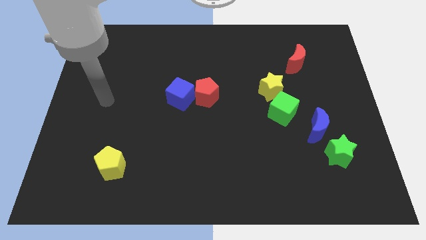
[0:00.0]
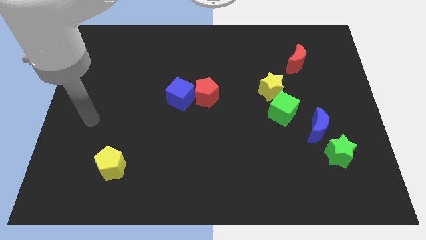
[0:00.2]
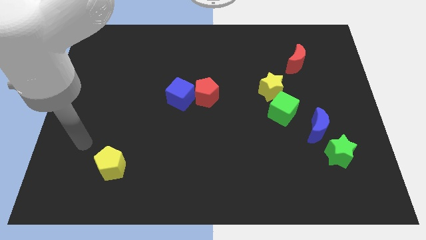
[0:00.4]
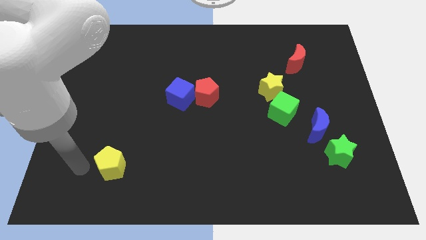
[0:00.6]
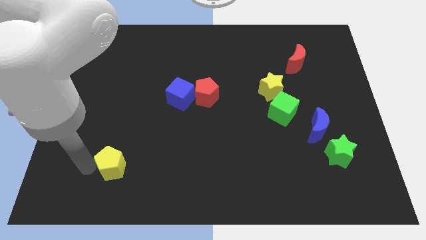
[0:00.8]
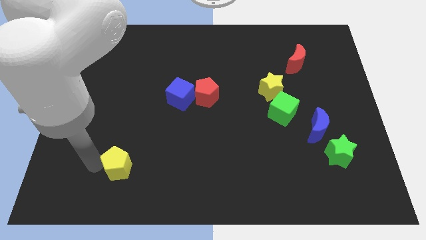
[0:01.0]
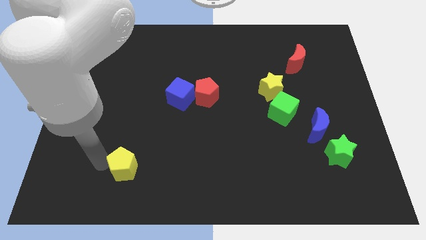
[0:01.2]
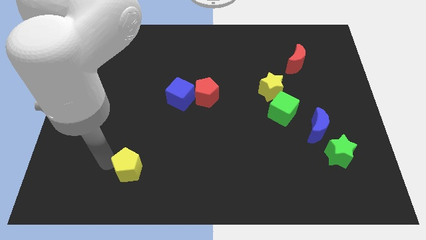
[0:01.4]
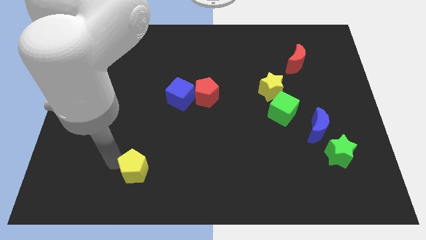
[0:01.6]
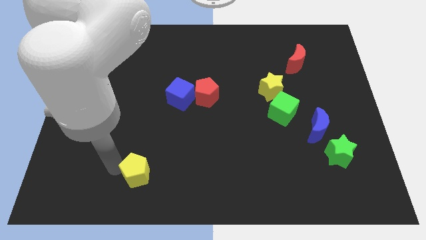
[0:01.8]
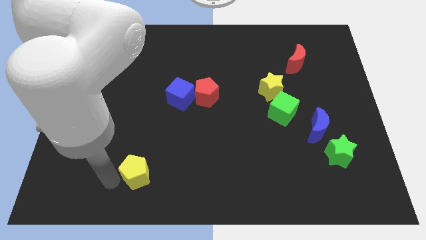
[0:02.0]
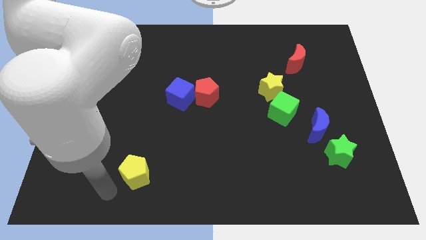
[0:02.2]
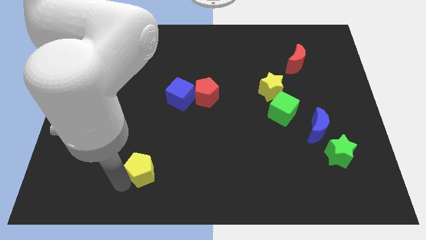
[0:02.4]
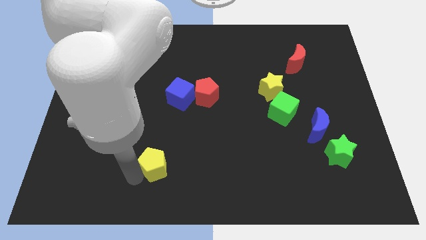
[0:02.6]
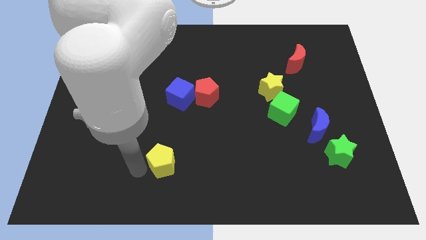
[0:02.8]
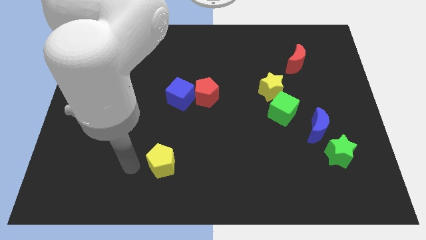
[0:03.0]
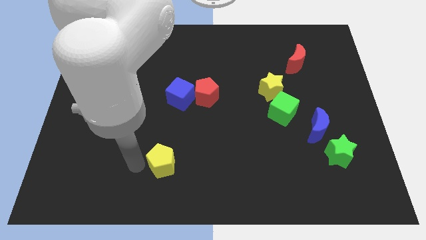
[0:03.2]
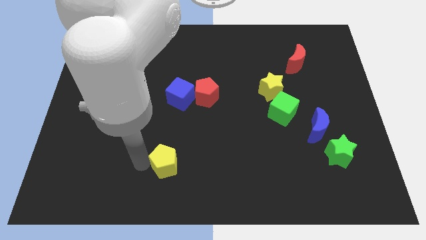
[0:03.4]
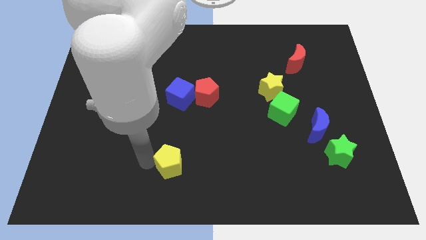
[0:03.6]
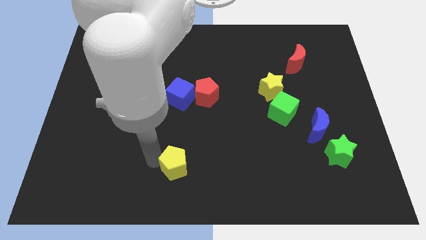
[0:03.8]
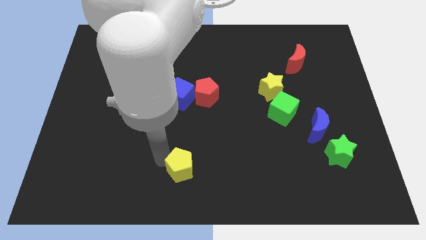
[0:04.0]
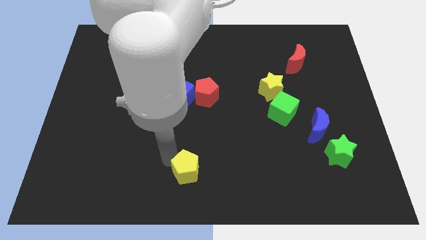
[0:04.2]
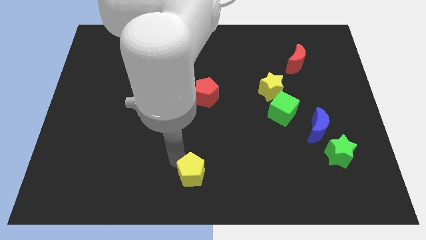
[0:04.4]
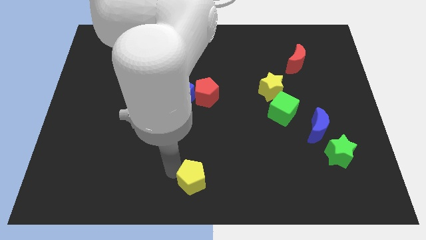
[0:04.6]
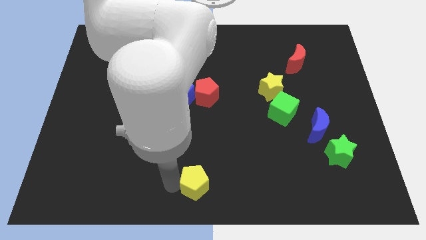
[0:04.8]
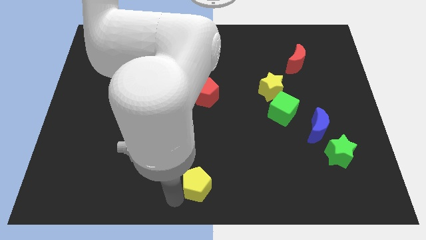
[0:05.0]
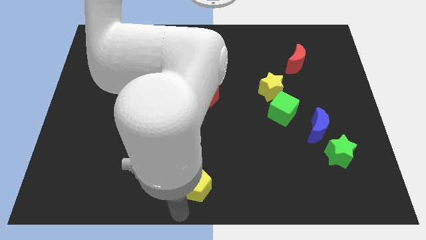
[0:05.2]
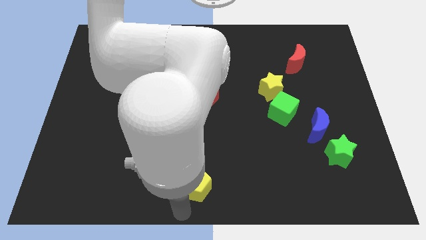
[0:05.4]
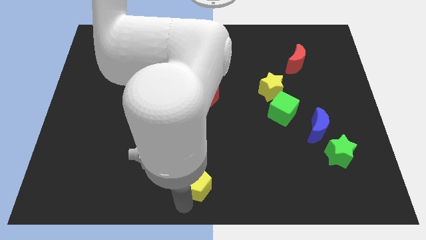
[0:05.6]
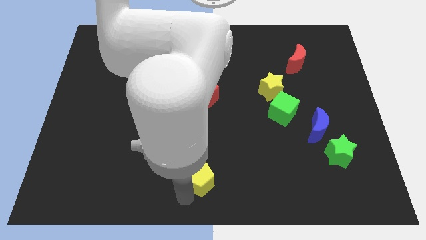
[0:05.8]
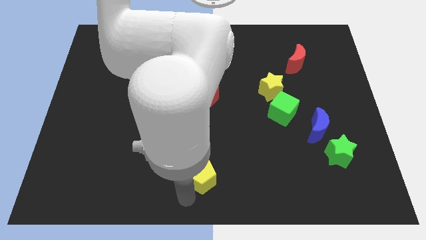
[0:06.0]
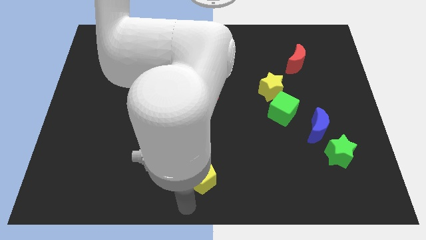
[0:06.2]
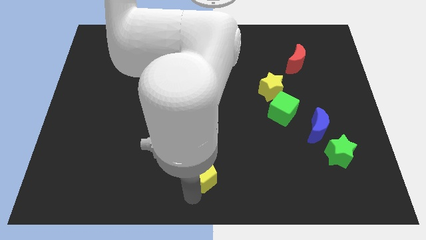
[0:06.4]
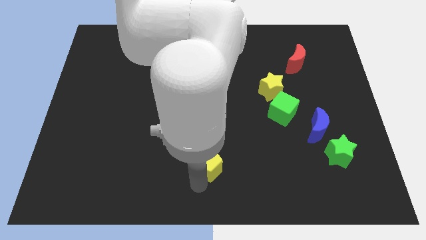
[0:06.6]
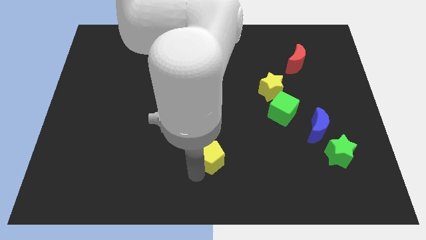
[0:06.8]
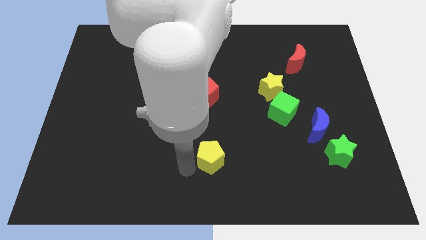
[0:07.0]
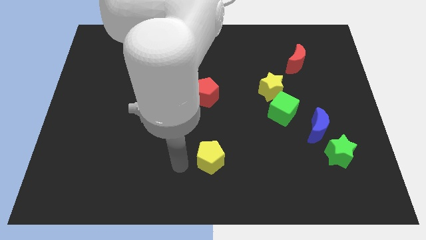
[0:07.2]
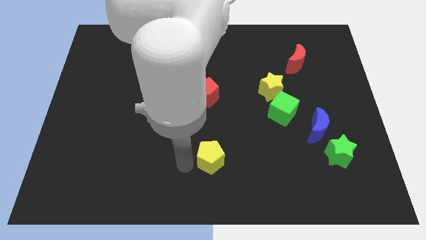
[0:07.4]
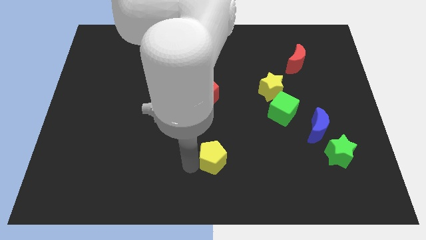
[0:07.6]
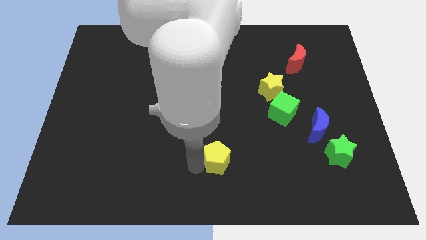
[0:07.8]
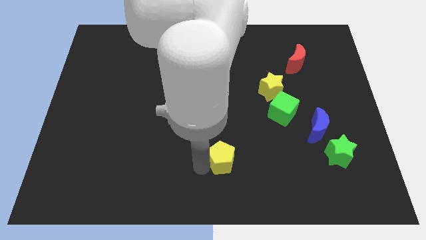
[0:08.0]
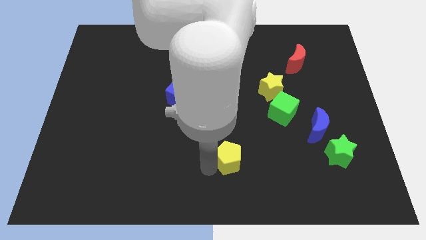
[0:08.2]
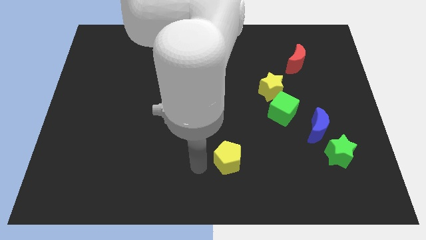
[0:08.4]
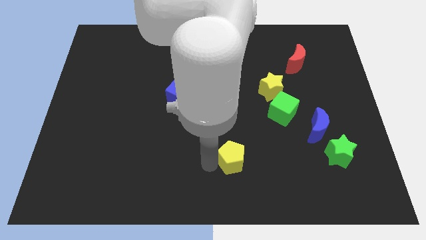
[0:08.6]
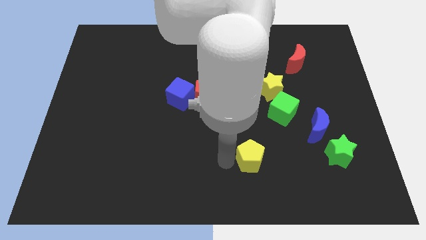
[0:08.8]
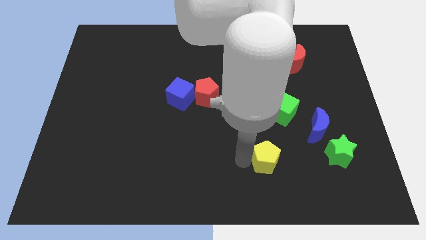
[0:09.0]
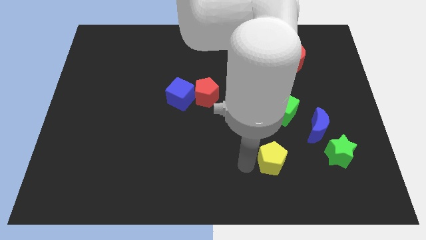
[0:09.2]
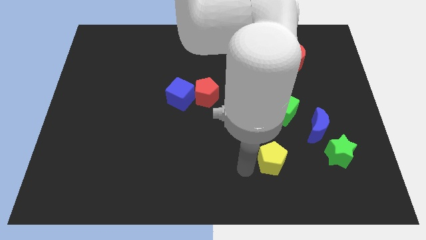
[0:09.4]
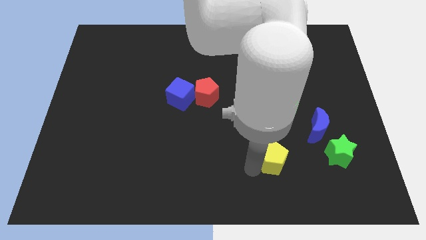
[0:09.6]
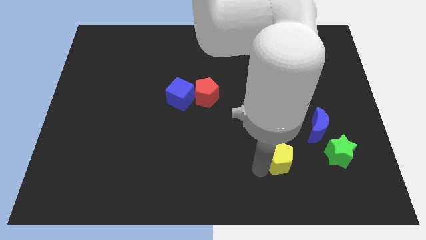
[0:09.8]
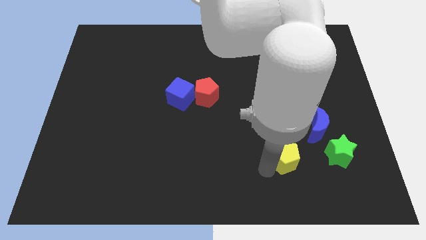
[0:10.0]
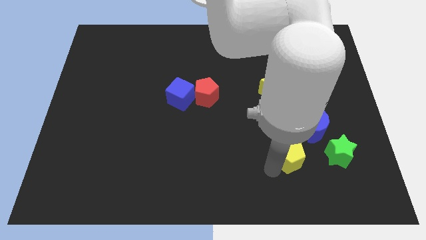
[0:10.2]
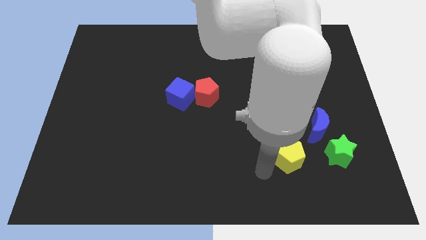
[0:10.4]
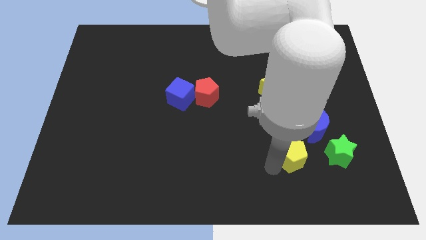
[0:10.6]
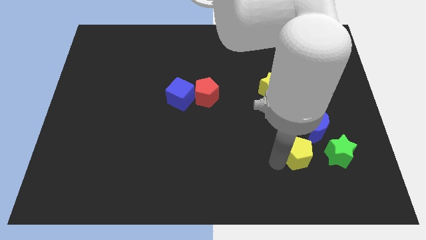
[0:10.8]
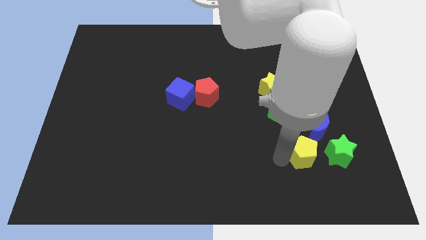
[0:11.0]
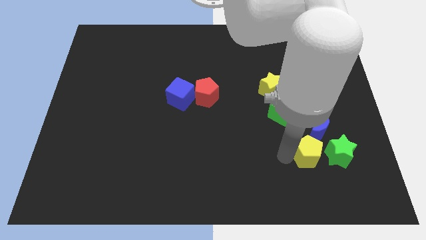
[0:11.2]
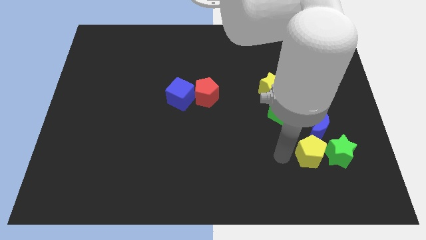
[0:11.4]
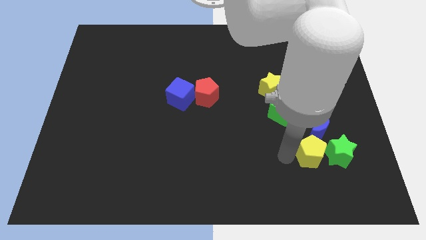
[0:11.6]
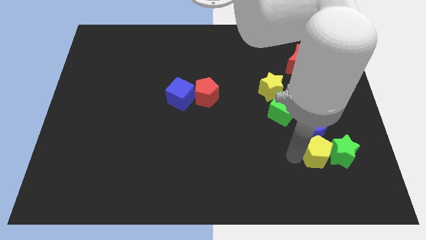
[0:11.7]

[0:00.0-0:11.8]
slide the yellow pentagon next to the green star

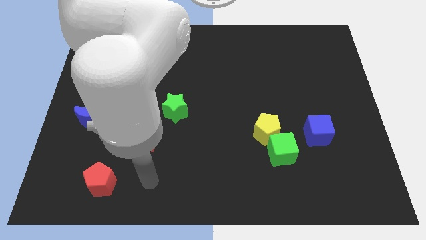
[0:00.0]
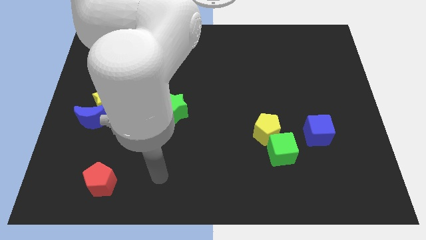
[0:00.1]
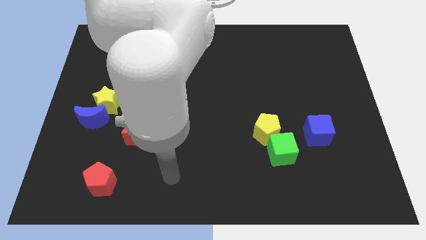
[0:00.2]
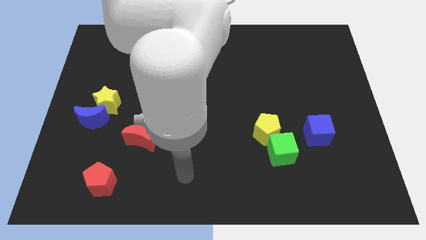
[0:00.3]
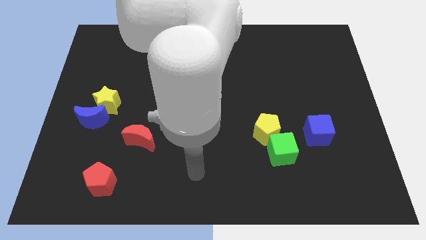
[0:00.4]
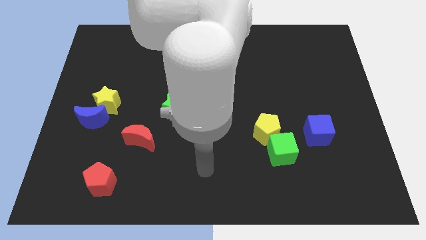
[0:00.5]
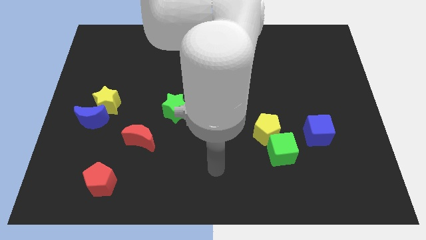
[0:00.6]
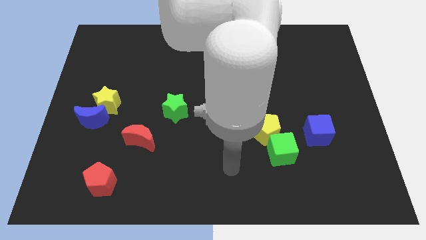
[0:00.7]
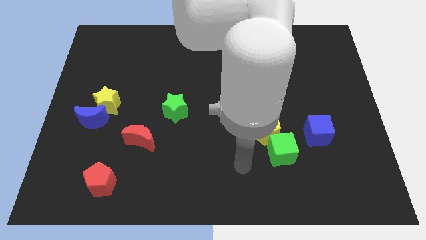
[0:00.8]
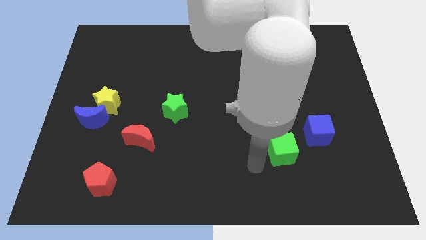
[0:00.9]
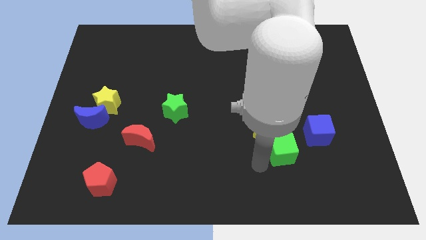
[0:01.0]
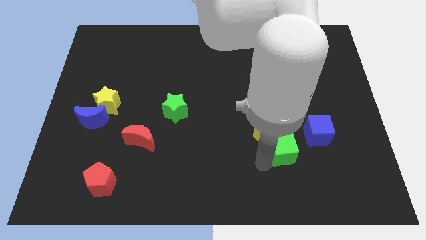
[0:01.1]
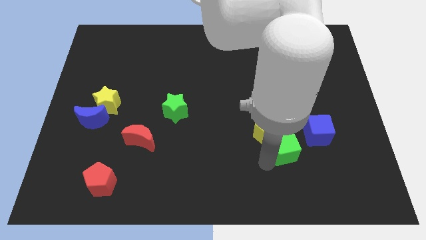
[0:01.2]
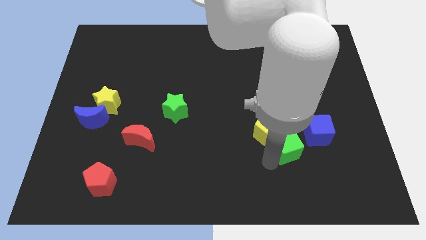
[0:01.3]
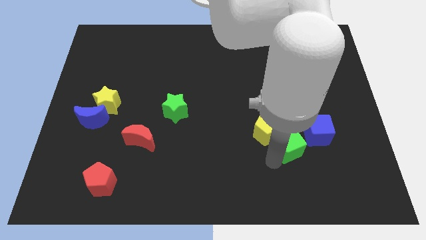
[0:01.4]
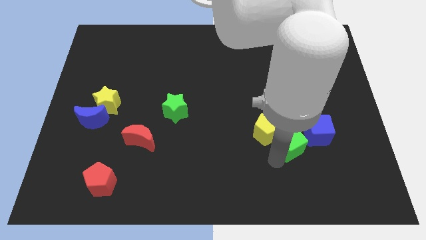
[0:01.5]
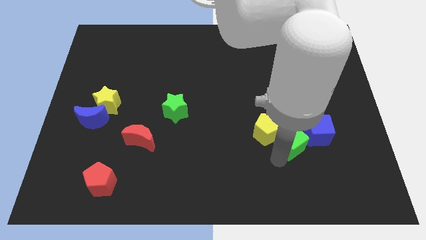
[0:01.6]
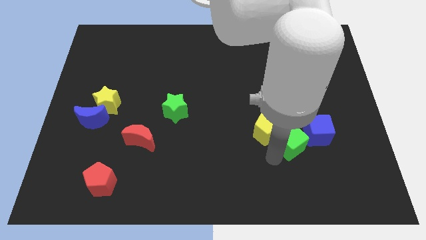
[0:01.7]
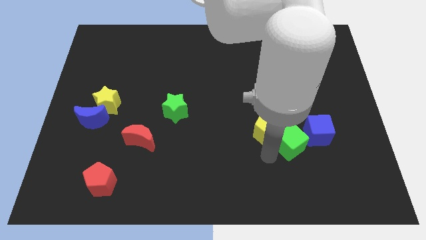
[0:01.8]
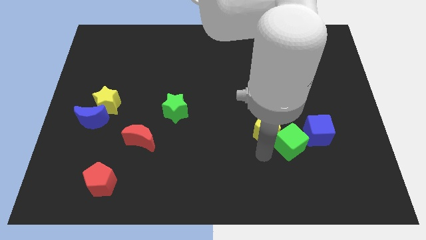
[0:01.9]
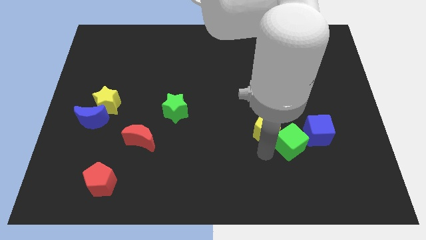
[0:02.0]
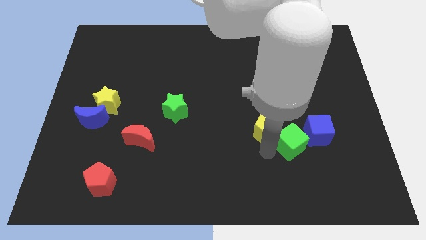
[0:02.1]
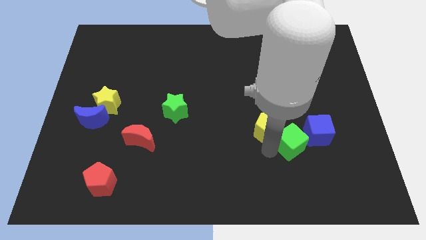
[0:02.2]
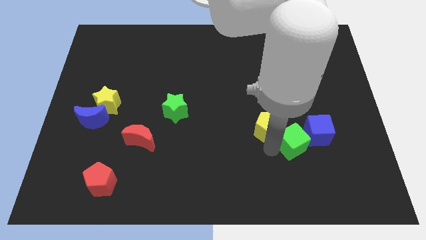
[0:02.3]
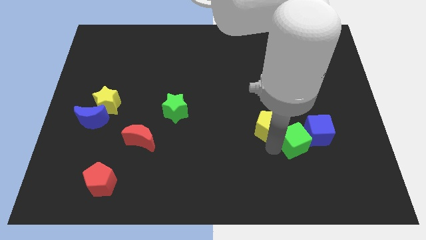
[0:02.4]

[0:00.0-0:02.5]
slide the green cube towards the blue cube
